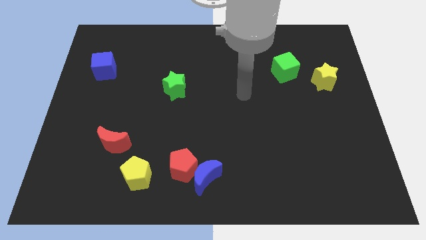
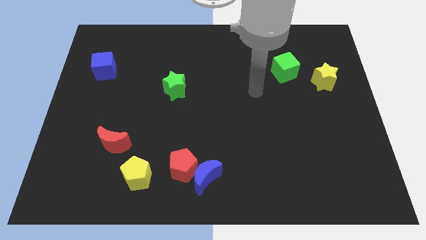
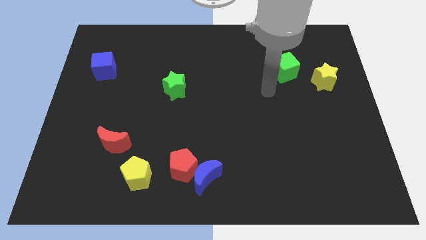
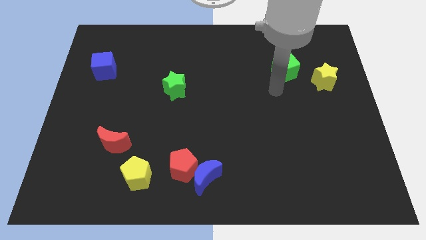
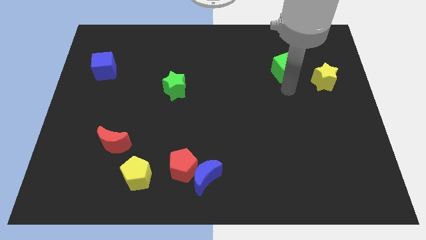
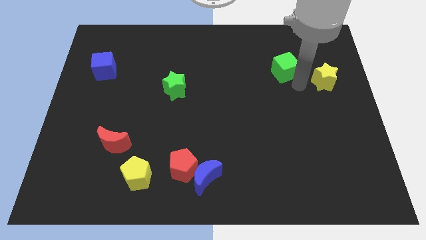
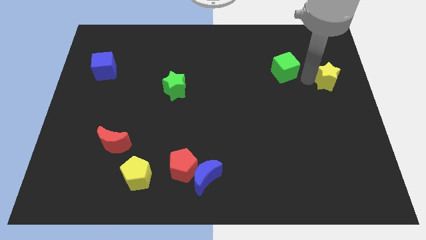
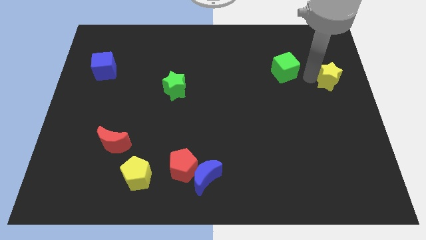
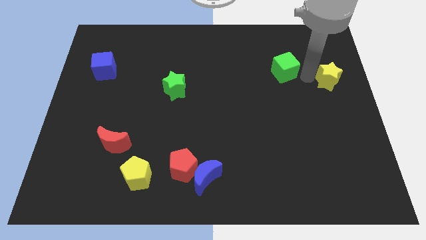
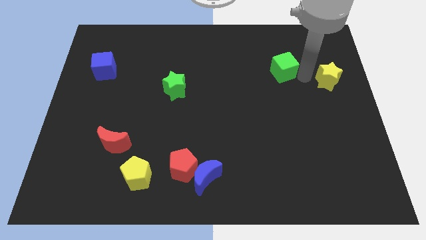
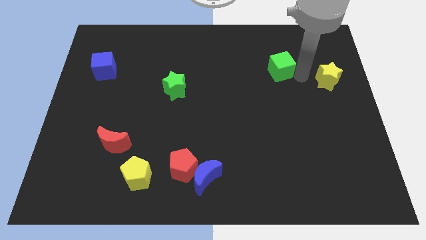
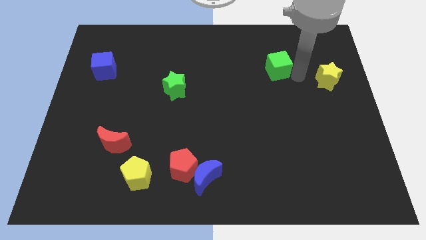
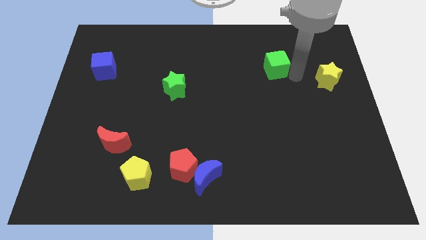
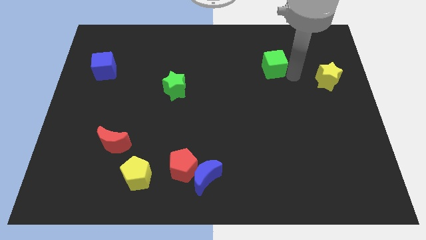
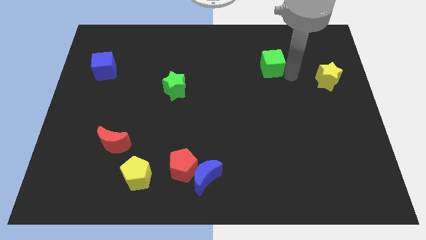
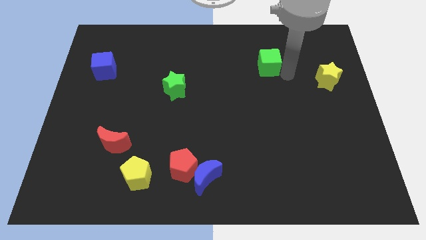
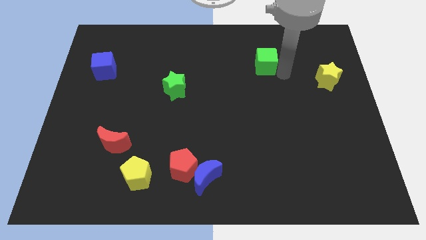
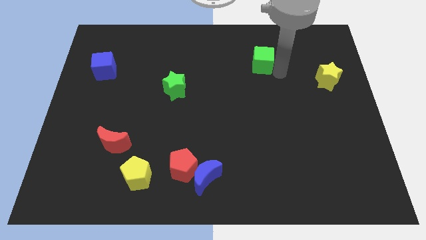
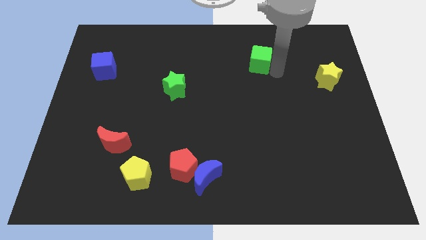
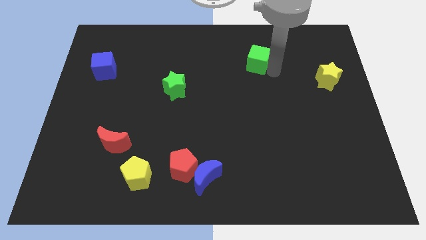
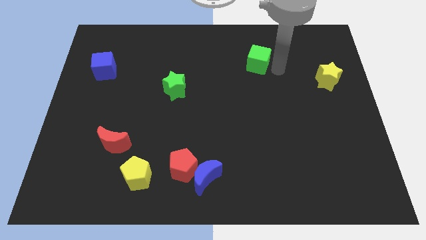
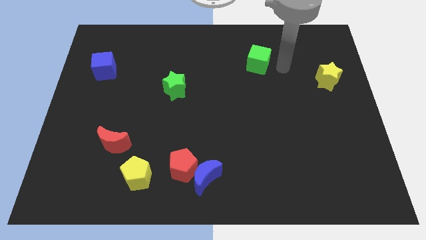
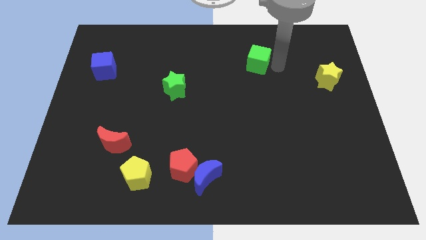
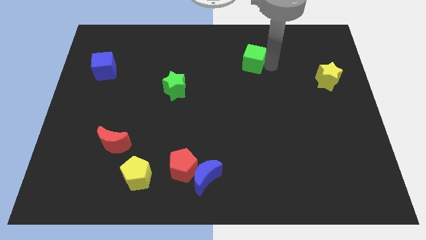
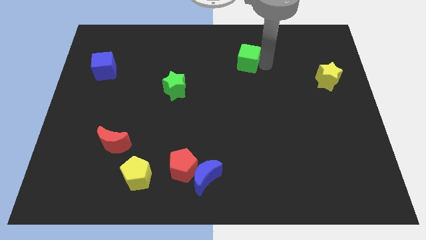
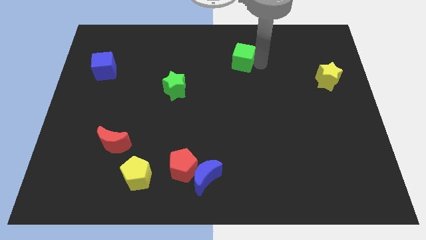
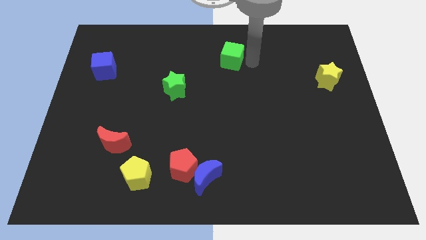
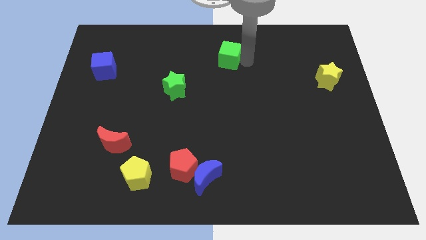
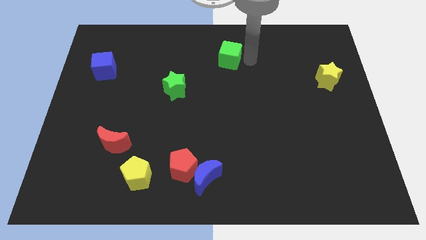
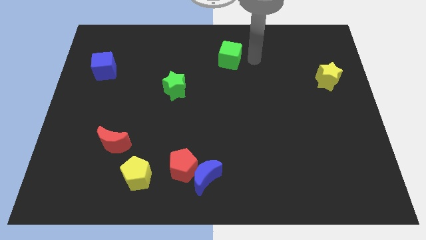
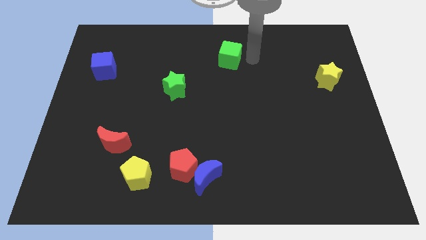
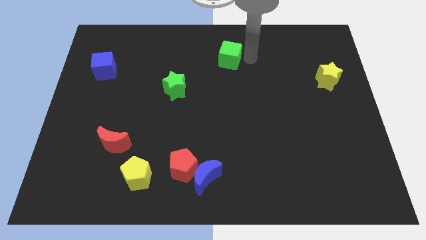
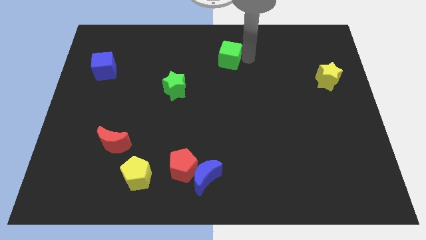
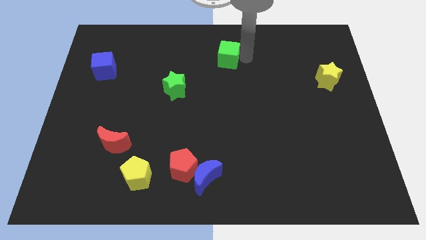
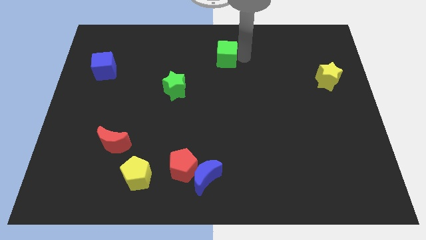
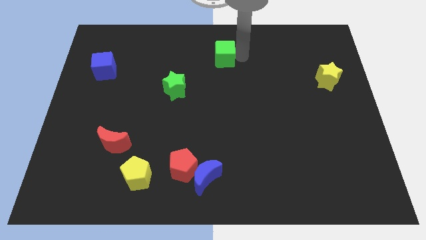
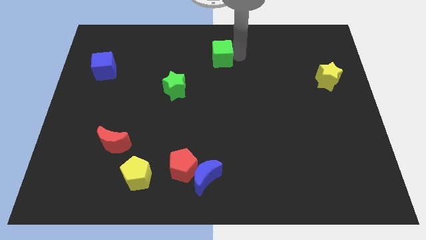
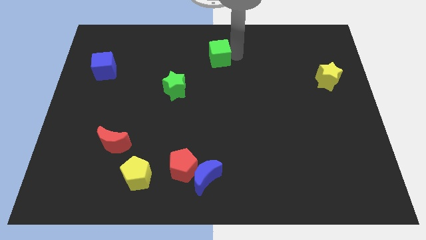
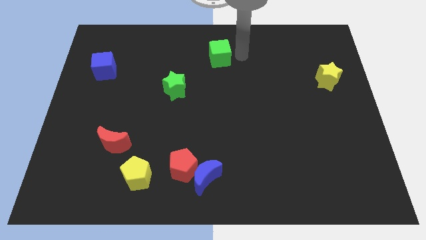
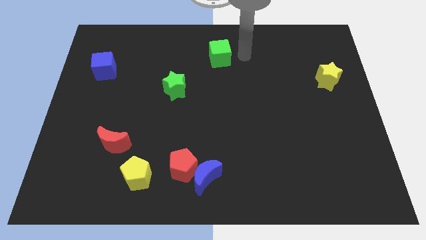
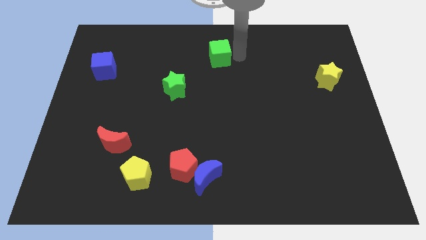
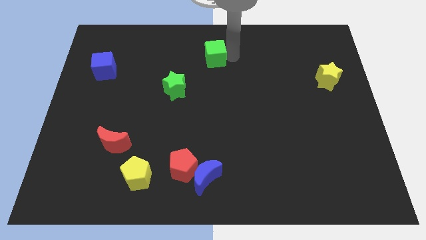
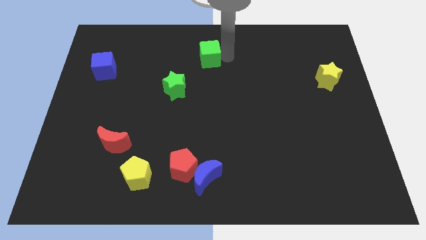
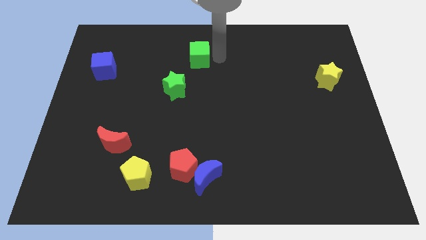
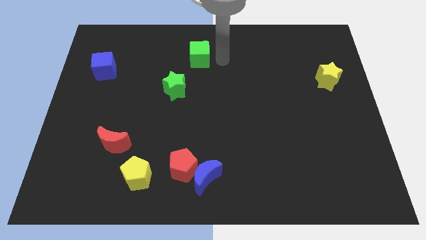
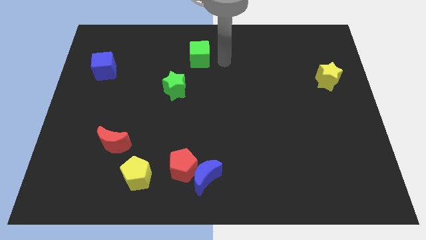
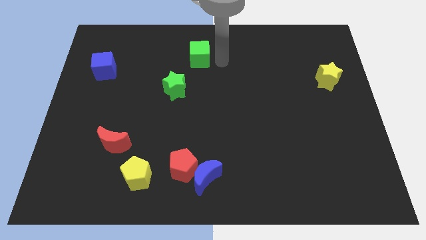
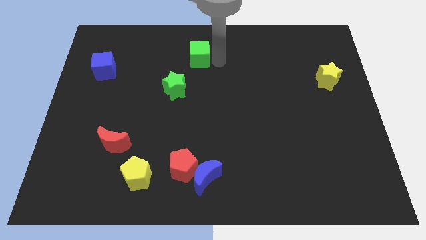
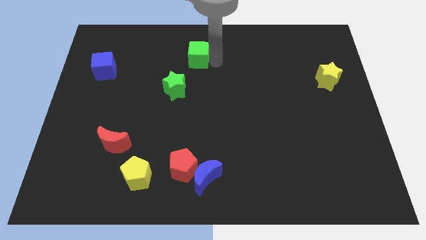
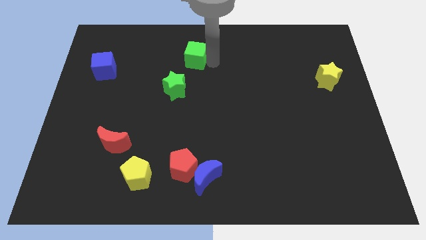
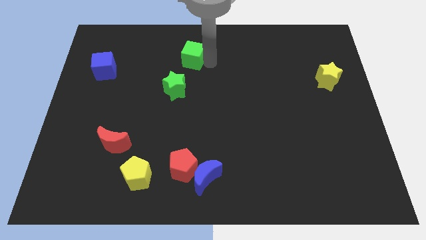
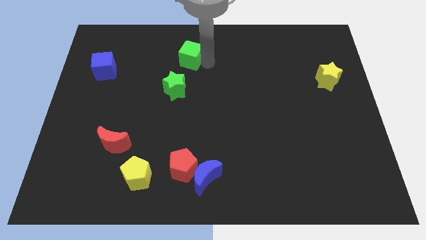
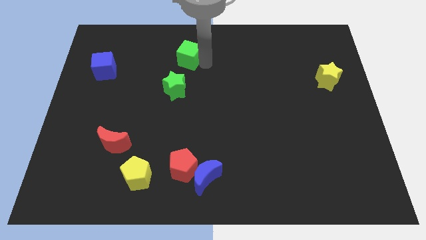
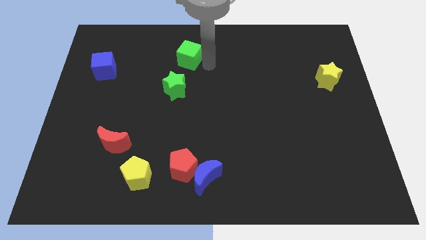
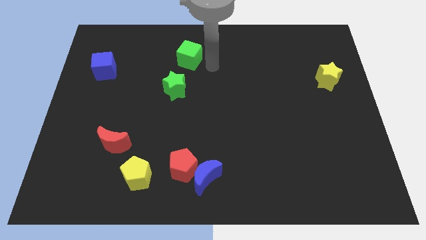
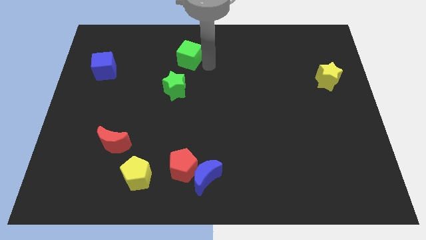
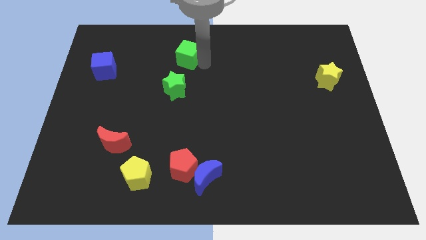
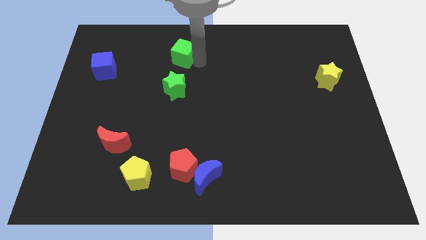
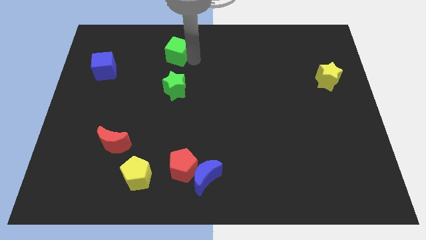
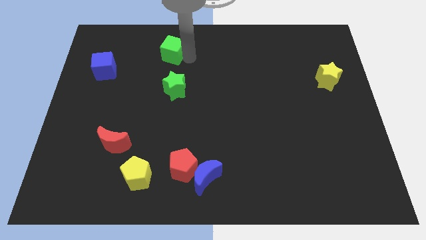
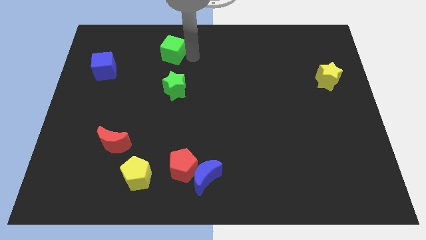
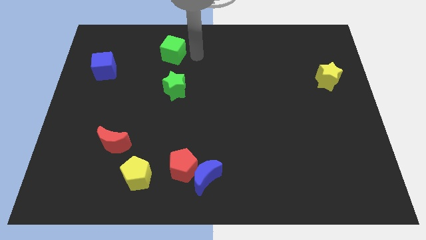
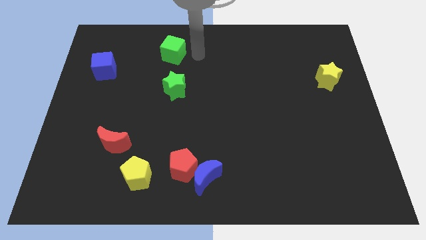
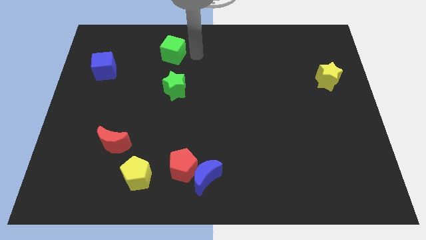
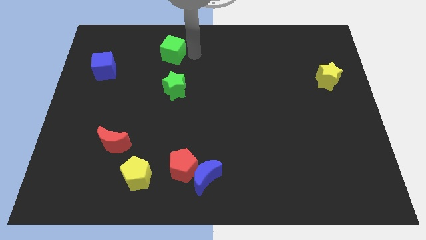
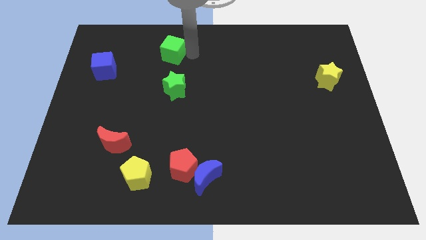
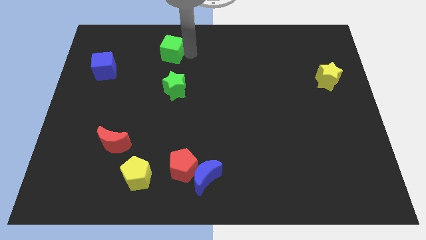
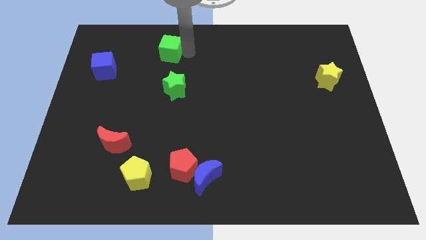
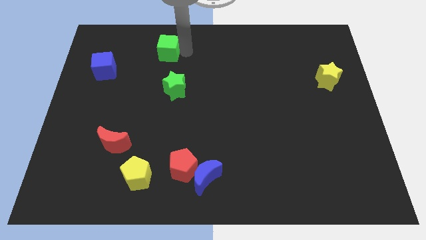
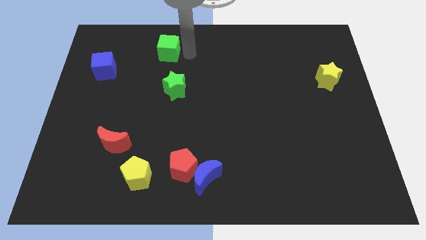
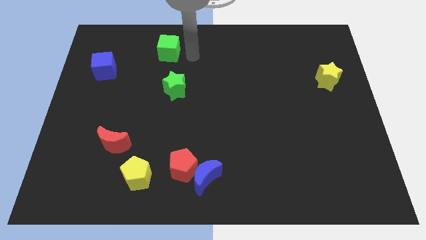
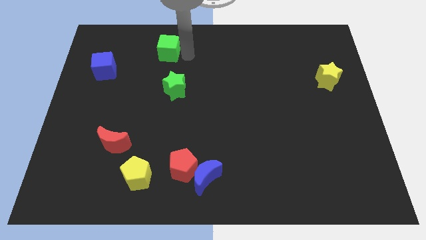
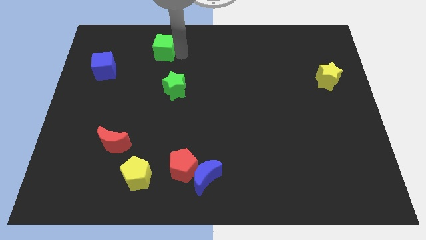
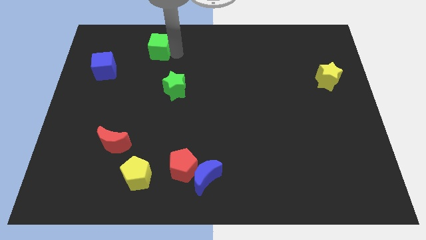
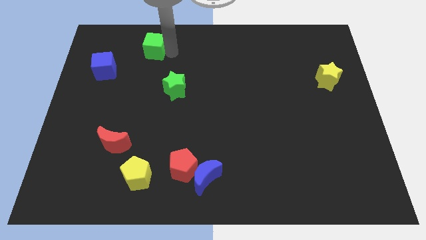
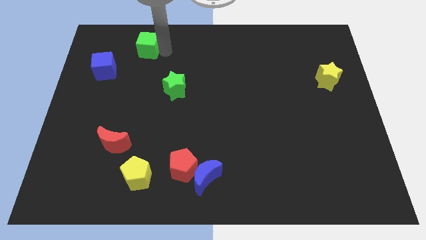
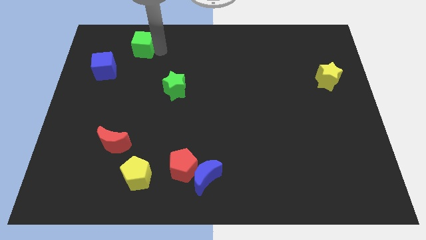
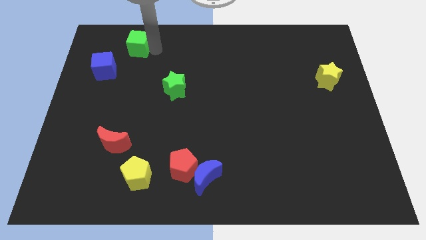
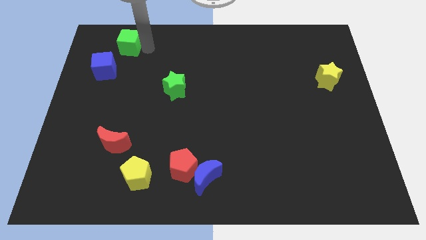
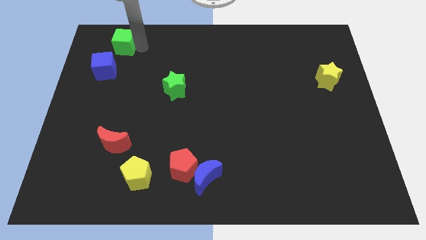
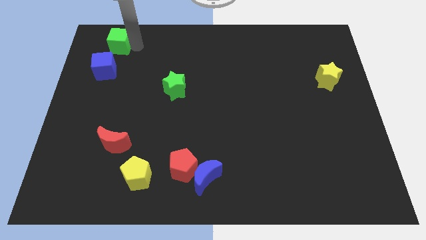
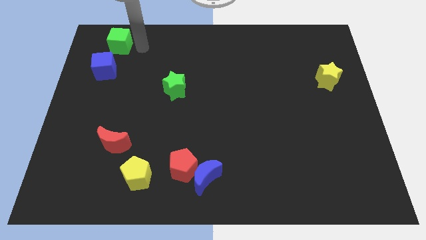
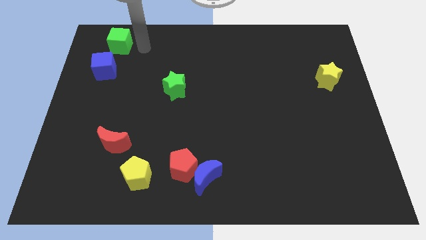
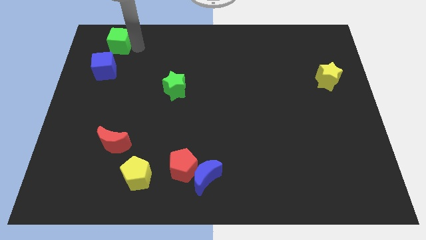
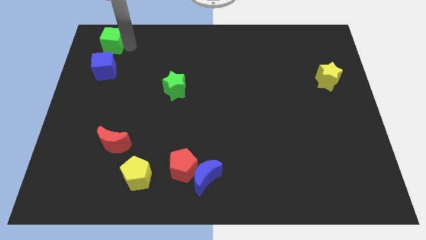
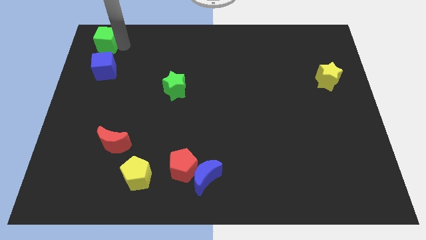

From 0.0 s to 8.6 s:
put the green cube to the top left
